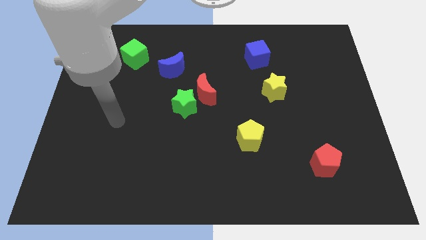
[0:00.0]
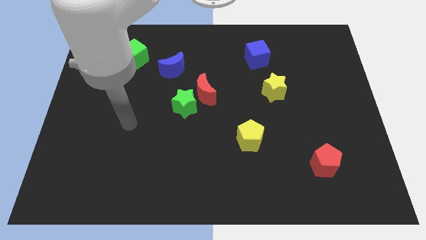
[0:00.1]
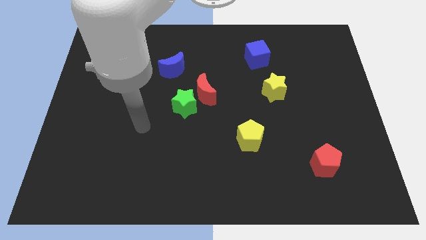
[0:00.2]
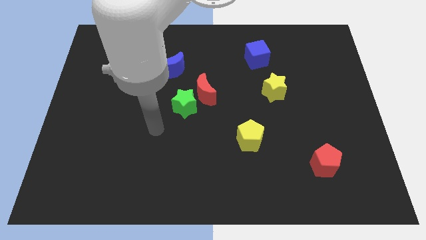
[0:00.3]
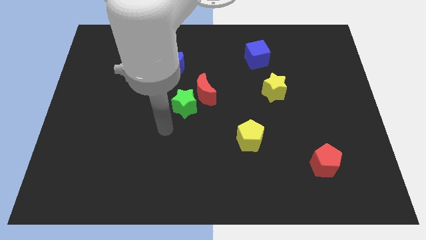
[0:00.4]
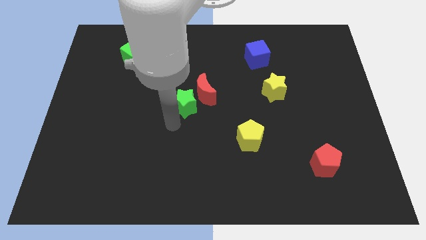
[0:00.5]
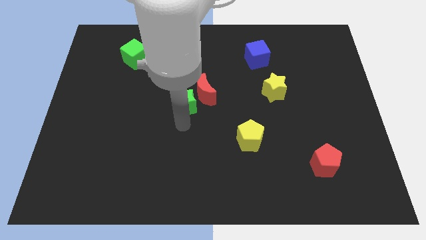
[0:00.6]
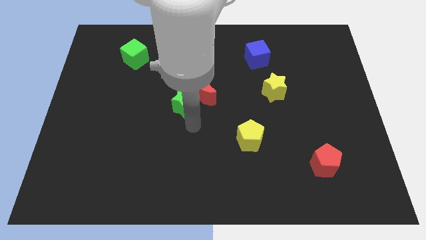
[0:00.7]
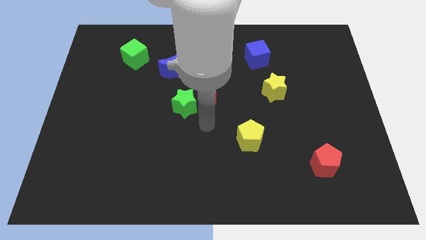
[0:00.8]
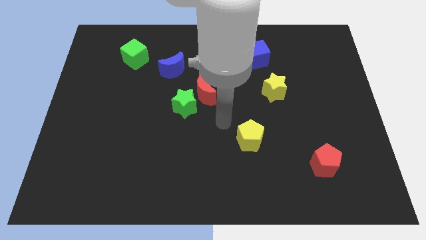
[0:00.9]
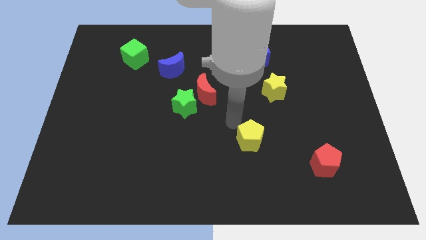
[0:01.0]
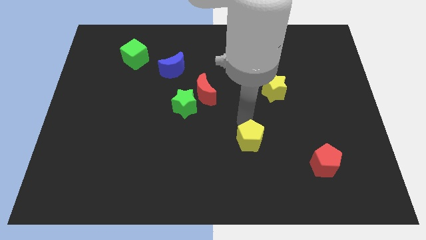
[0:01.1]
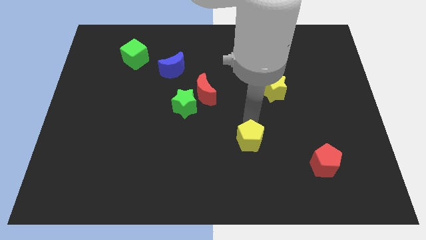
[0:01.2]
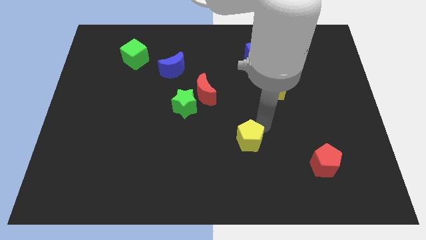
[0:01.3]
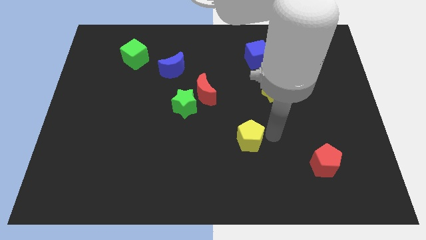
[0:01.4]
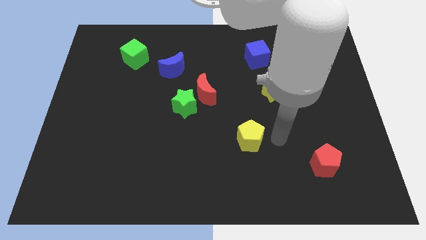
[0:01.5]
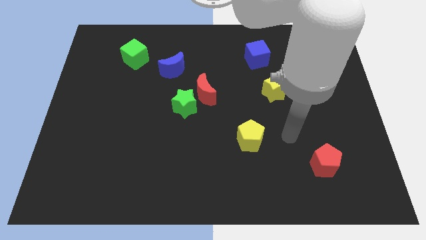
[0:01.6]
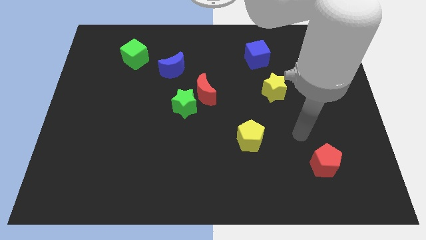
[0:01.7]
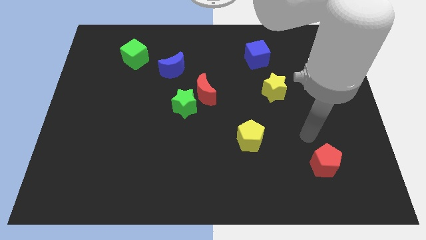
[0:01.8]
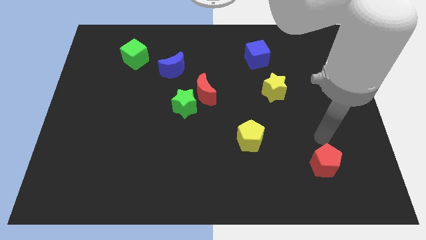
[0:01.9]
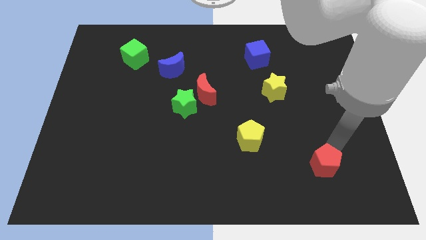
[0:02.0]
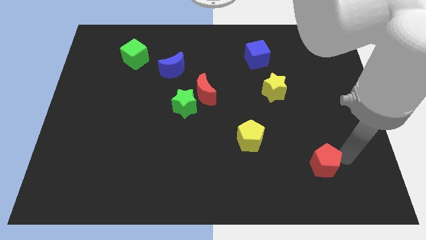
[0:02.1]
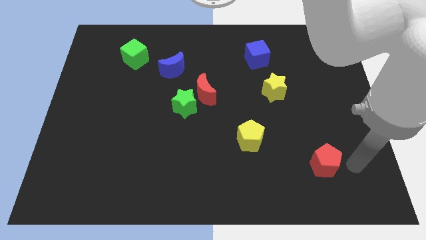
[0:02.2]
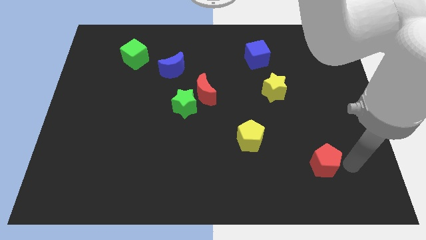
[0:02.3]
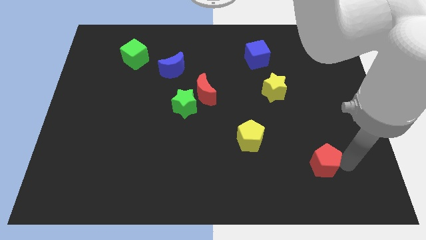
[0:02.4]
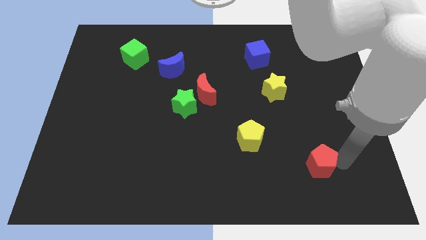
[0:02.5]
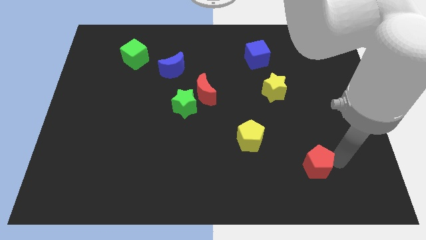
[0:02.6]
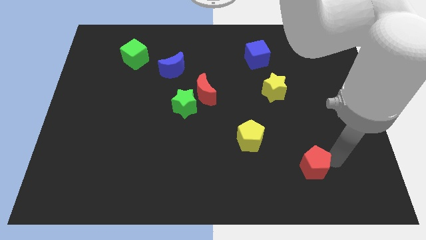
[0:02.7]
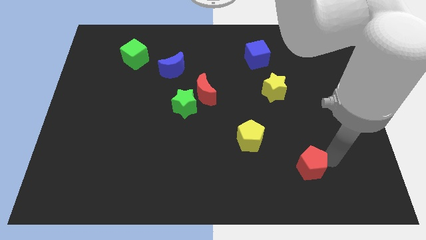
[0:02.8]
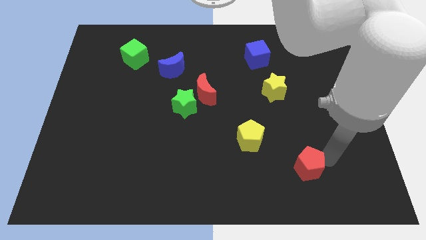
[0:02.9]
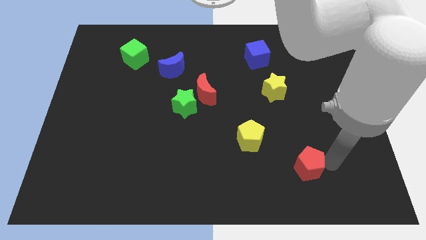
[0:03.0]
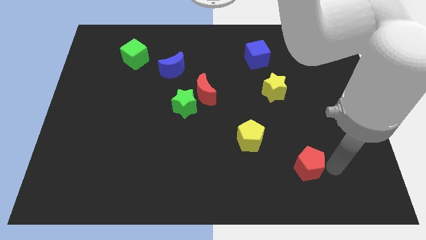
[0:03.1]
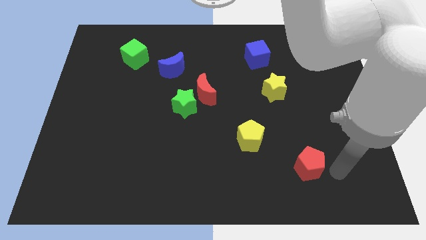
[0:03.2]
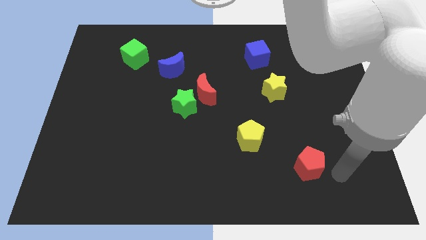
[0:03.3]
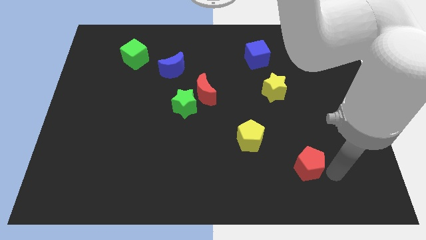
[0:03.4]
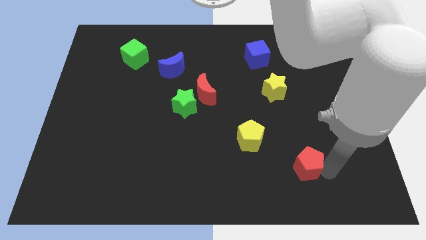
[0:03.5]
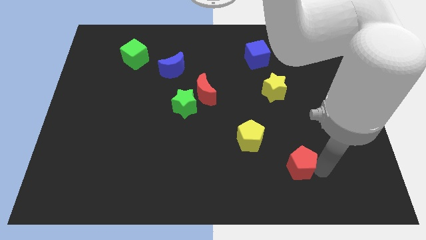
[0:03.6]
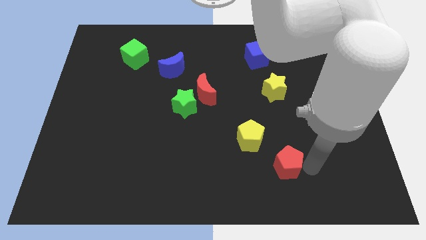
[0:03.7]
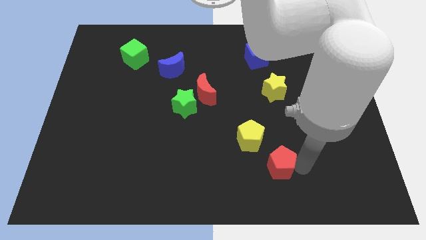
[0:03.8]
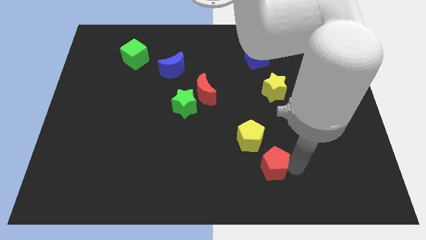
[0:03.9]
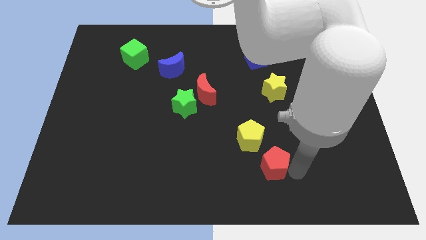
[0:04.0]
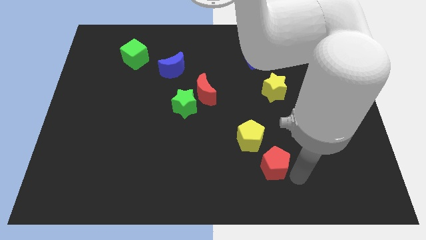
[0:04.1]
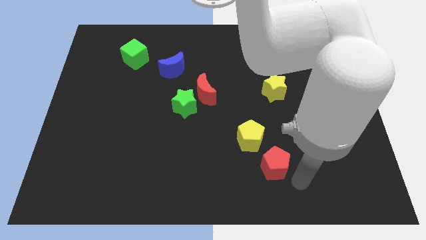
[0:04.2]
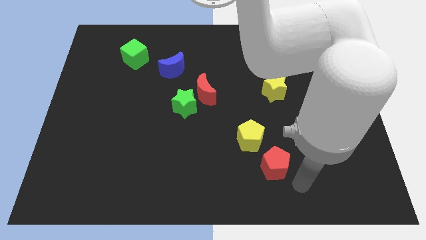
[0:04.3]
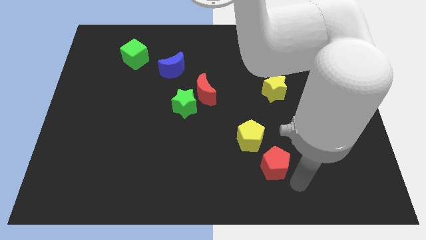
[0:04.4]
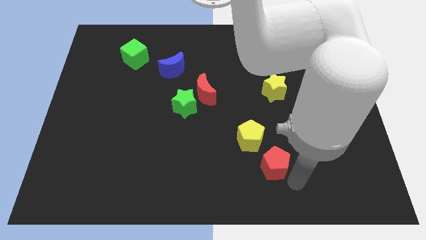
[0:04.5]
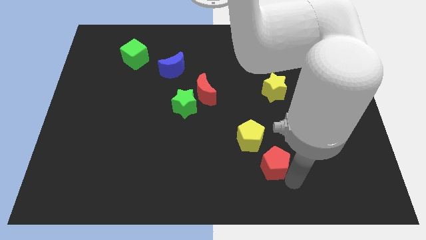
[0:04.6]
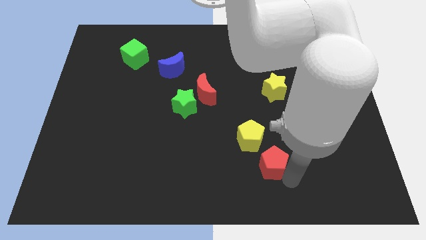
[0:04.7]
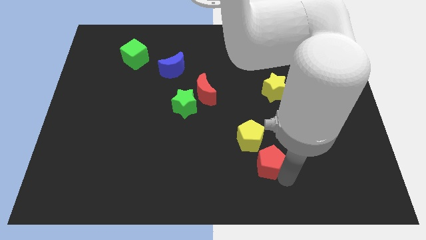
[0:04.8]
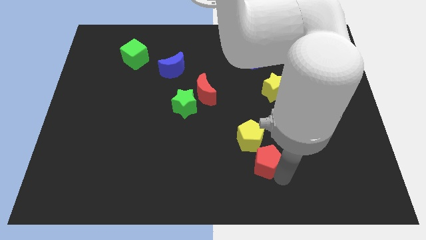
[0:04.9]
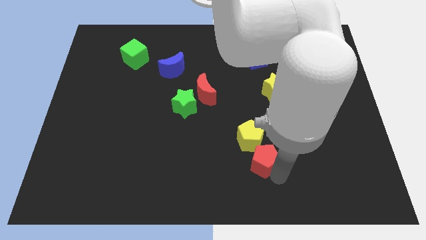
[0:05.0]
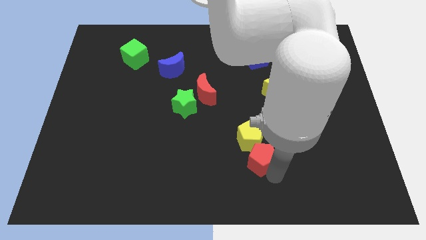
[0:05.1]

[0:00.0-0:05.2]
move the red pentagon next to the yellow pentagon

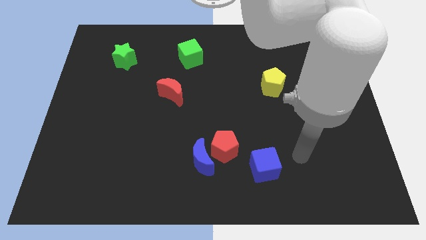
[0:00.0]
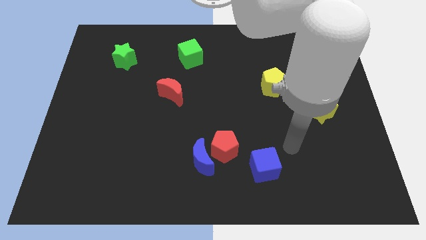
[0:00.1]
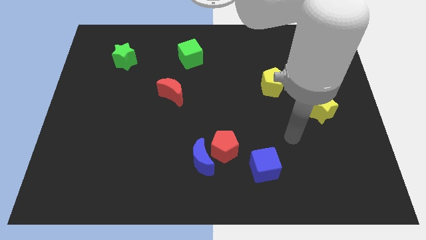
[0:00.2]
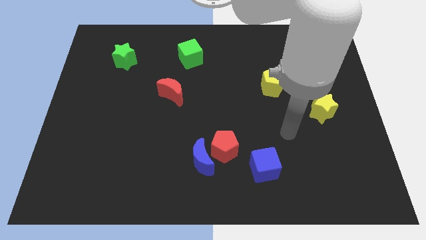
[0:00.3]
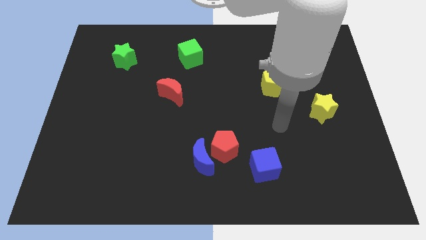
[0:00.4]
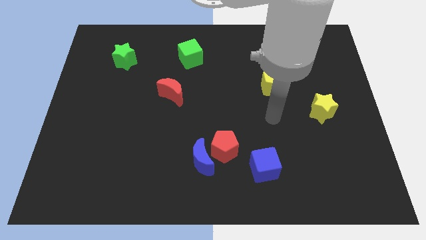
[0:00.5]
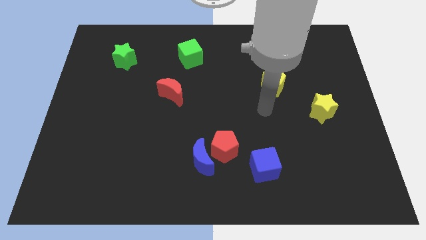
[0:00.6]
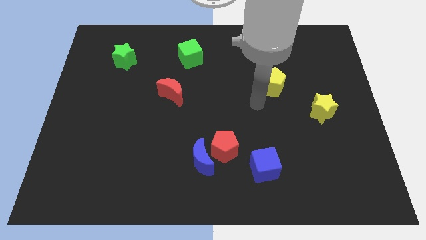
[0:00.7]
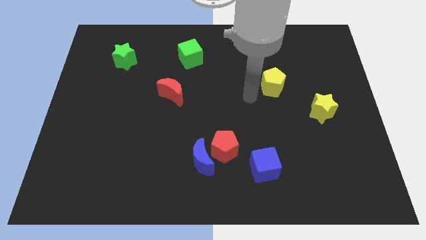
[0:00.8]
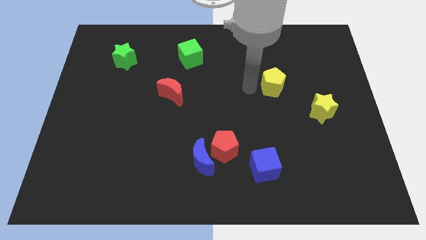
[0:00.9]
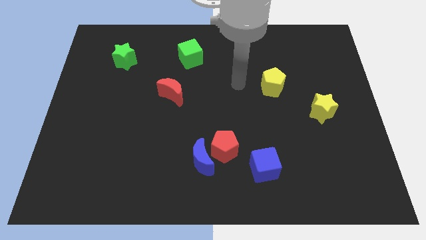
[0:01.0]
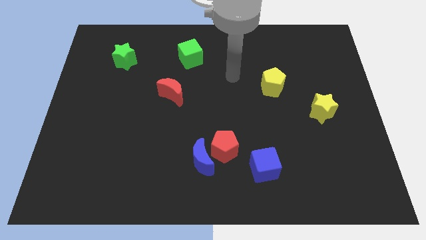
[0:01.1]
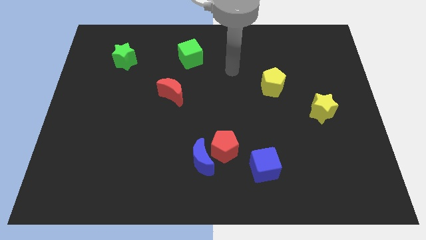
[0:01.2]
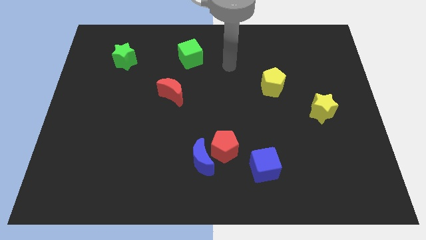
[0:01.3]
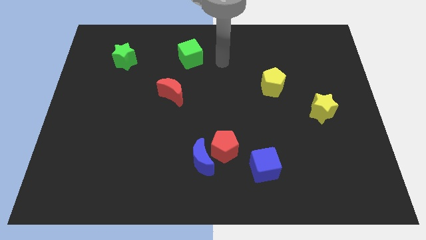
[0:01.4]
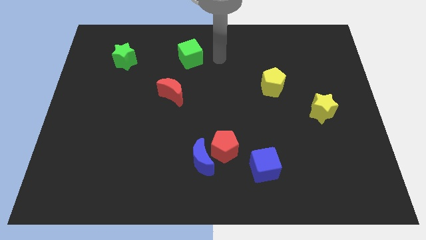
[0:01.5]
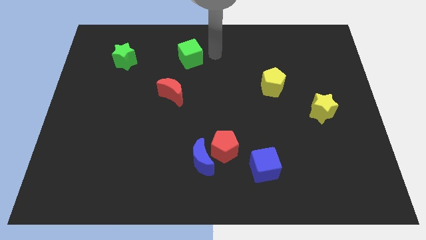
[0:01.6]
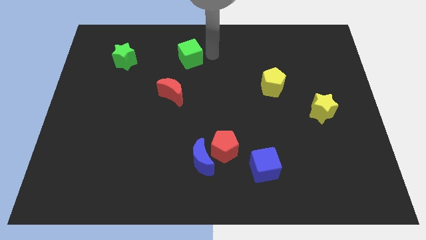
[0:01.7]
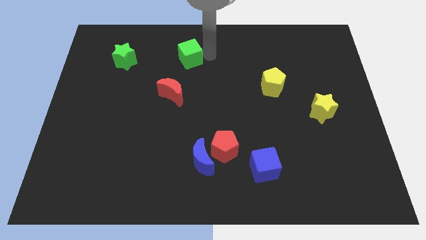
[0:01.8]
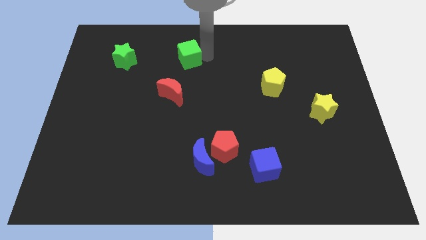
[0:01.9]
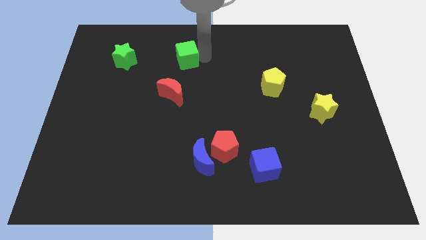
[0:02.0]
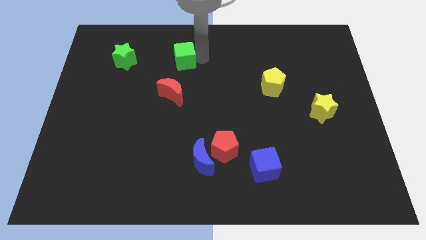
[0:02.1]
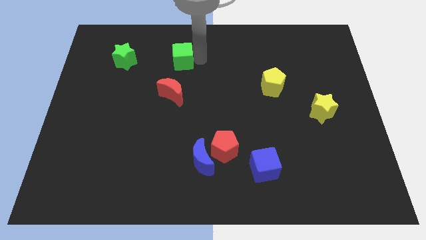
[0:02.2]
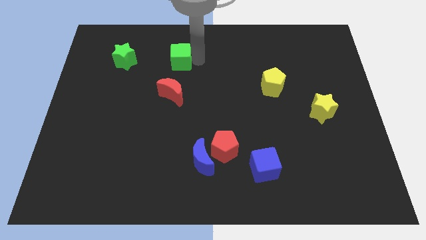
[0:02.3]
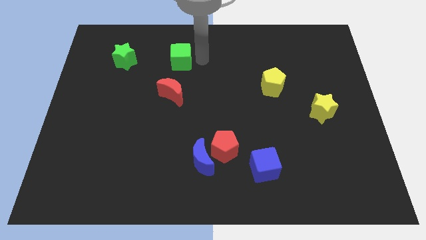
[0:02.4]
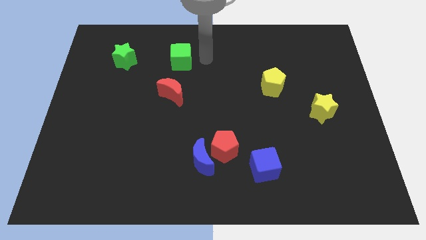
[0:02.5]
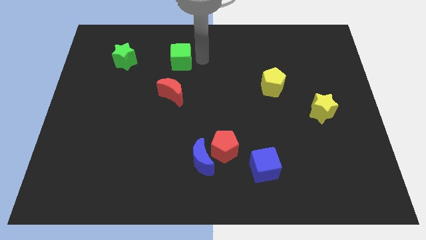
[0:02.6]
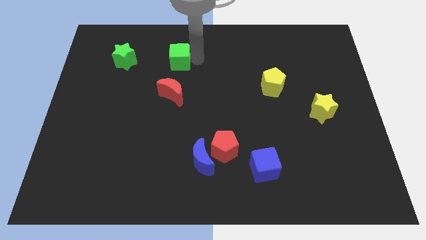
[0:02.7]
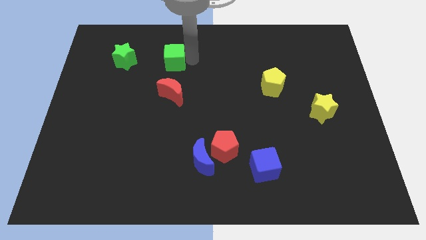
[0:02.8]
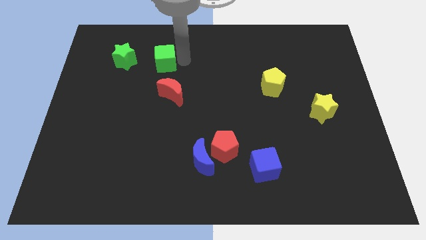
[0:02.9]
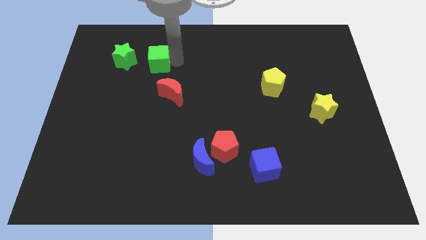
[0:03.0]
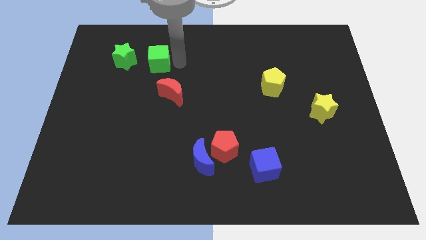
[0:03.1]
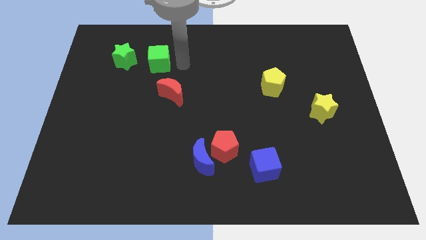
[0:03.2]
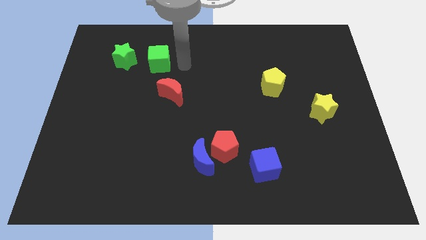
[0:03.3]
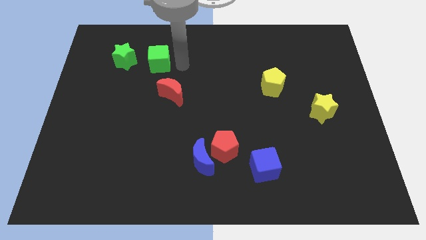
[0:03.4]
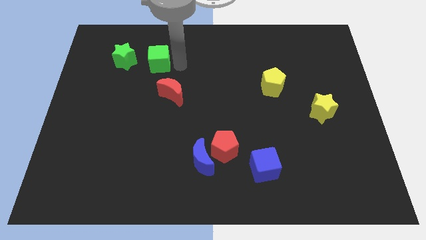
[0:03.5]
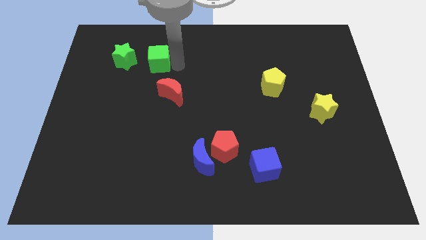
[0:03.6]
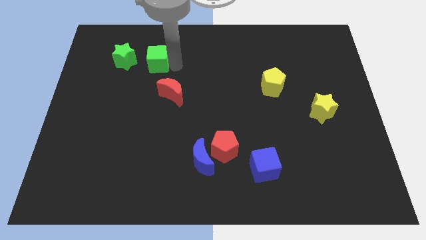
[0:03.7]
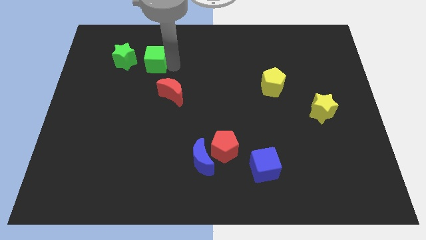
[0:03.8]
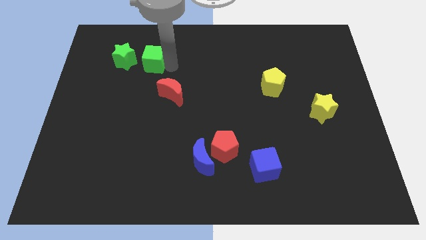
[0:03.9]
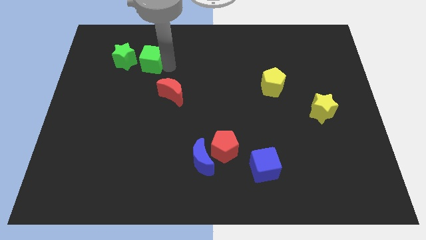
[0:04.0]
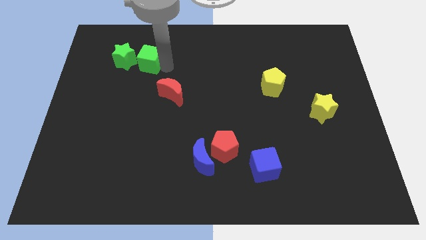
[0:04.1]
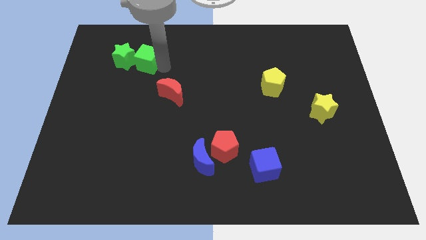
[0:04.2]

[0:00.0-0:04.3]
push the green cube next to the green star
